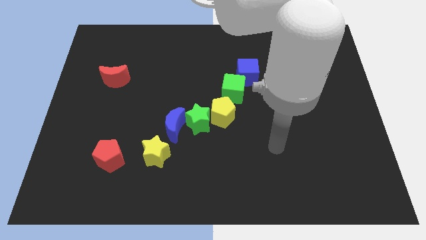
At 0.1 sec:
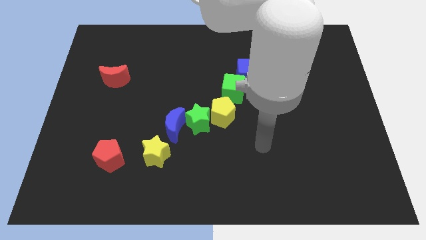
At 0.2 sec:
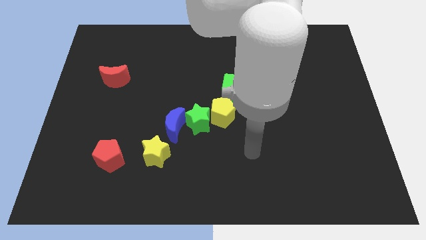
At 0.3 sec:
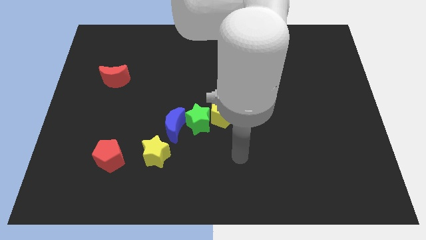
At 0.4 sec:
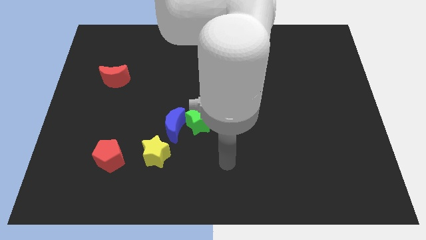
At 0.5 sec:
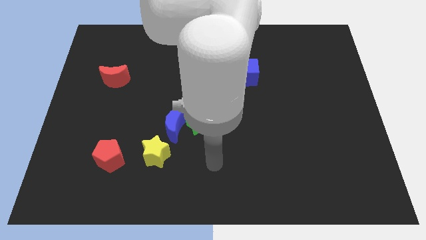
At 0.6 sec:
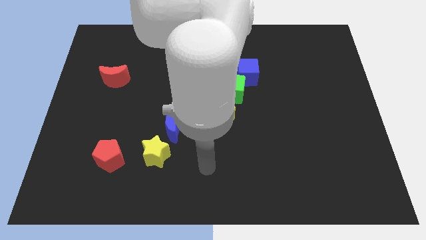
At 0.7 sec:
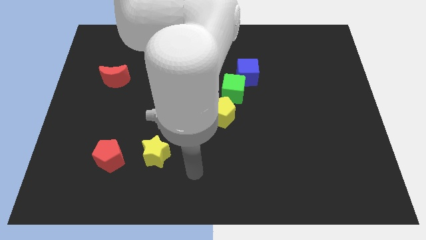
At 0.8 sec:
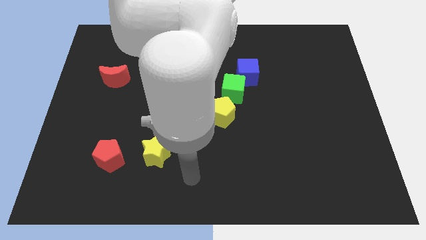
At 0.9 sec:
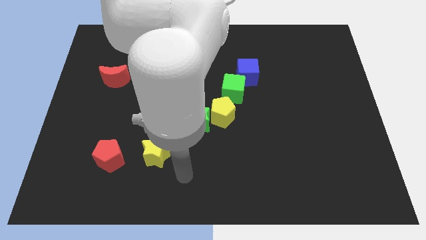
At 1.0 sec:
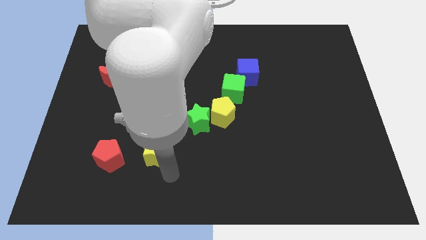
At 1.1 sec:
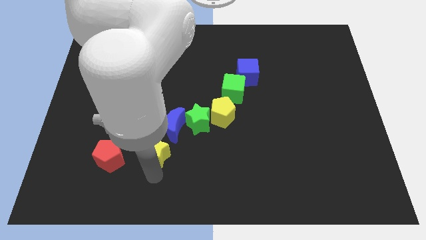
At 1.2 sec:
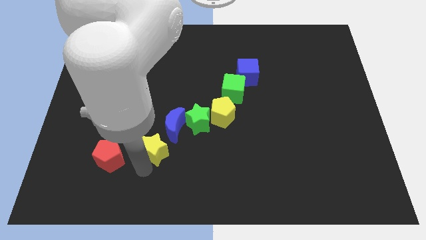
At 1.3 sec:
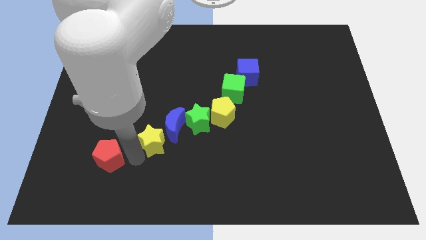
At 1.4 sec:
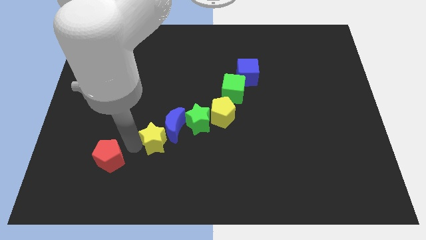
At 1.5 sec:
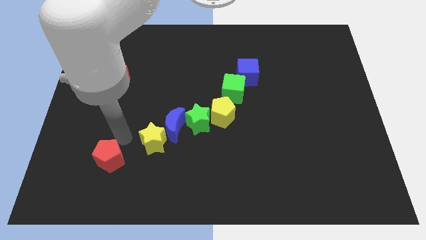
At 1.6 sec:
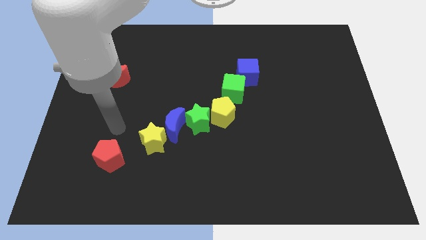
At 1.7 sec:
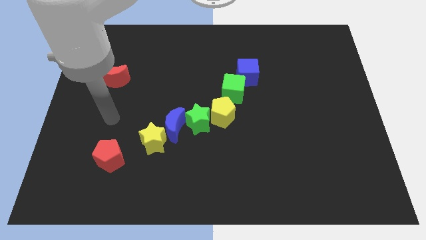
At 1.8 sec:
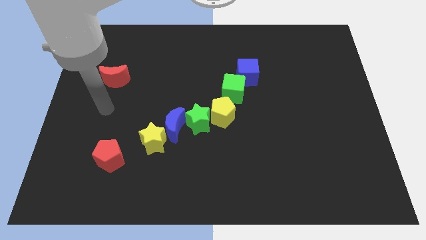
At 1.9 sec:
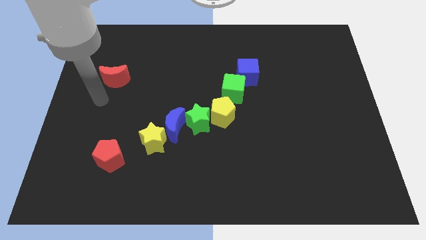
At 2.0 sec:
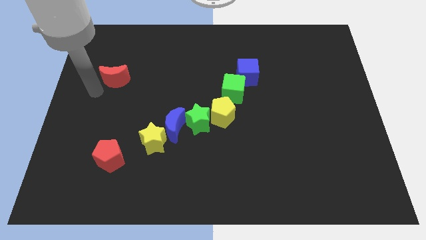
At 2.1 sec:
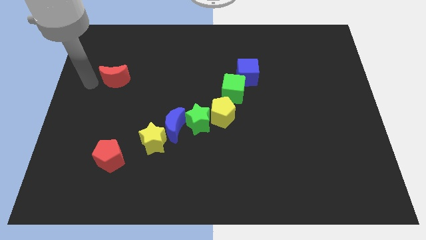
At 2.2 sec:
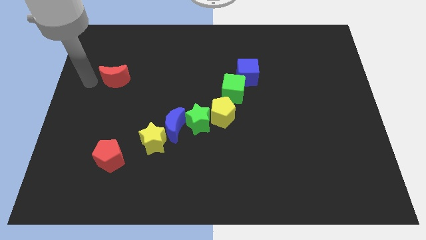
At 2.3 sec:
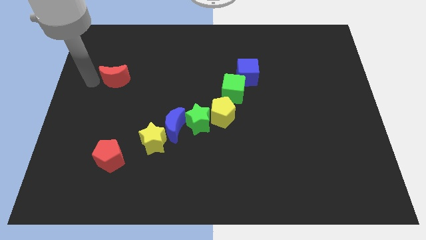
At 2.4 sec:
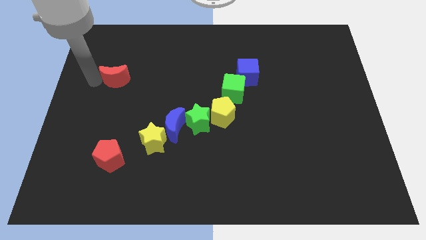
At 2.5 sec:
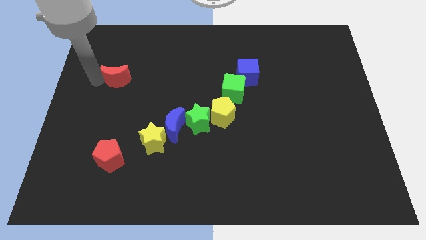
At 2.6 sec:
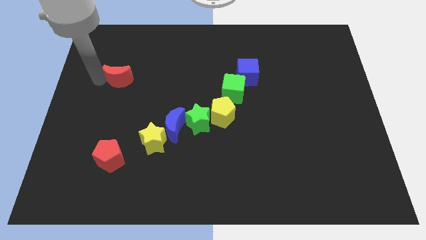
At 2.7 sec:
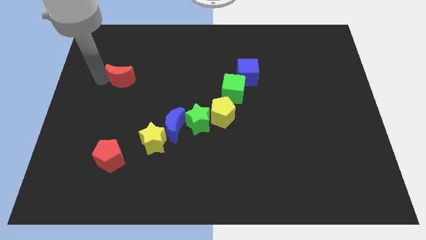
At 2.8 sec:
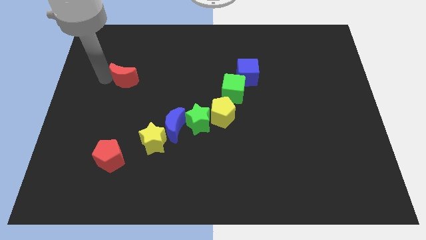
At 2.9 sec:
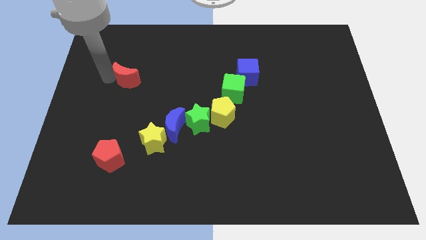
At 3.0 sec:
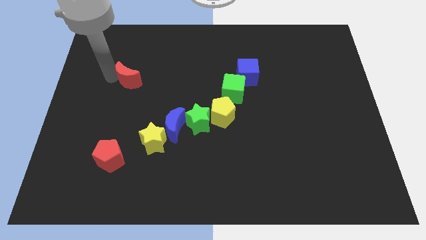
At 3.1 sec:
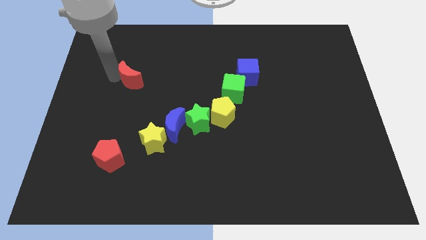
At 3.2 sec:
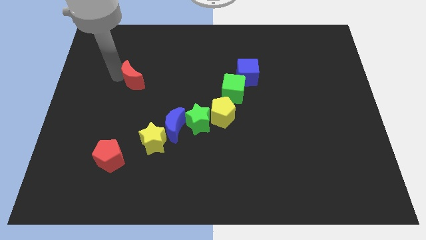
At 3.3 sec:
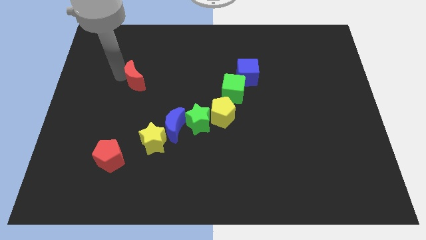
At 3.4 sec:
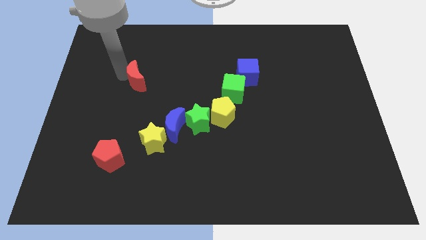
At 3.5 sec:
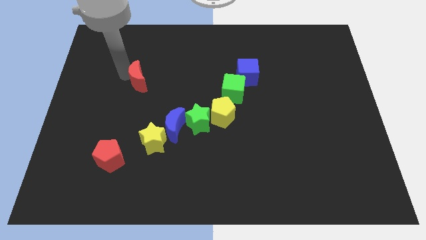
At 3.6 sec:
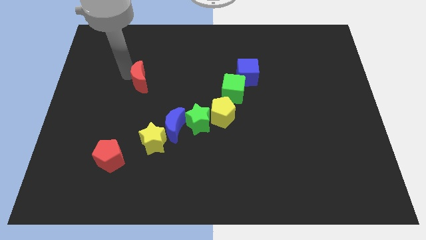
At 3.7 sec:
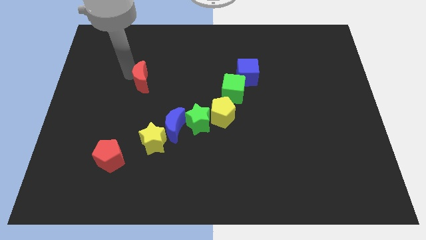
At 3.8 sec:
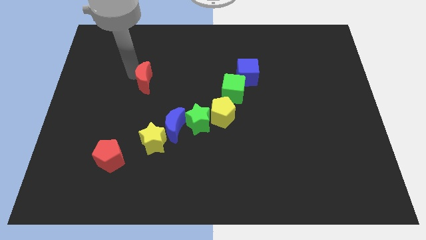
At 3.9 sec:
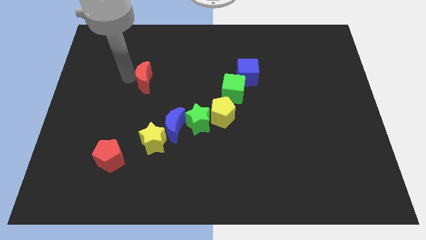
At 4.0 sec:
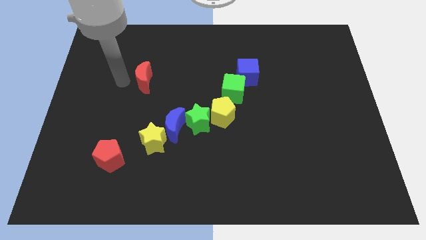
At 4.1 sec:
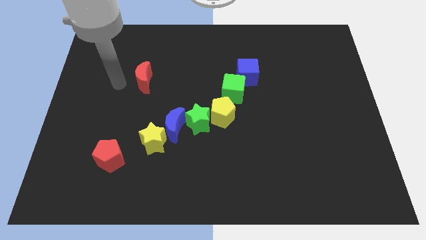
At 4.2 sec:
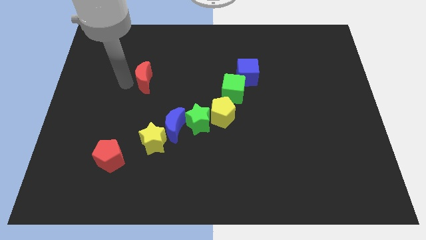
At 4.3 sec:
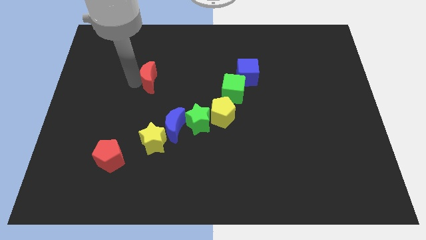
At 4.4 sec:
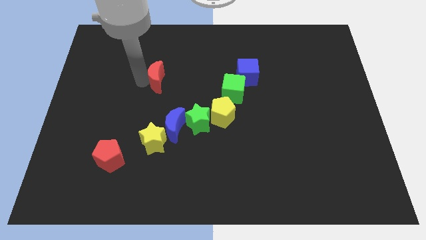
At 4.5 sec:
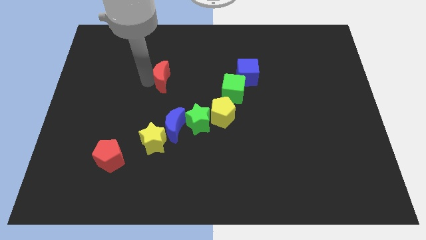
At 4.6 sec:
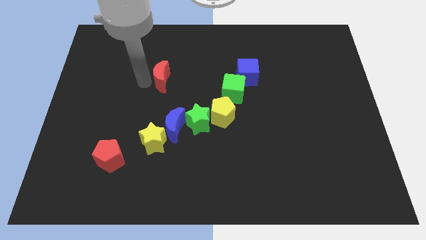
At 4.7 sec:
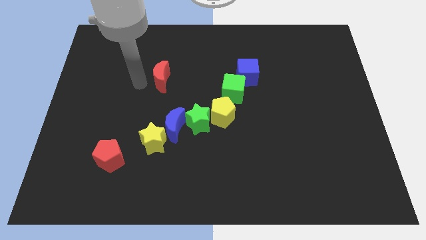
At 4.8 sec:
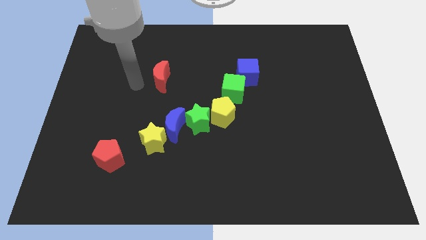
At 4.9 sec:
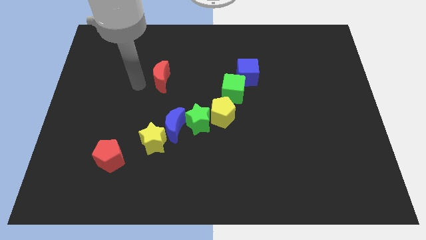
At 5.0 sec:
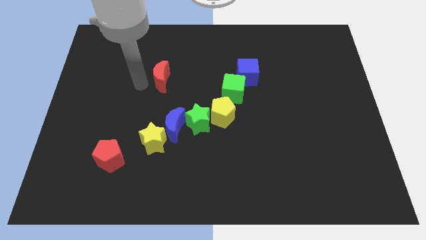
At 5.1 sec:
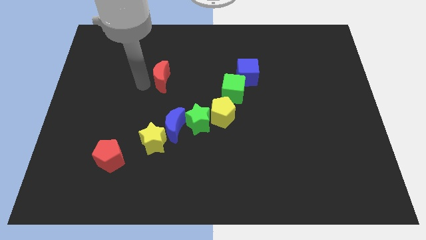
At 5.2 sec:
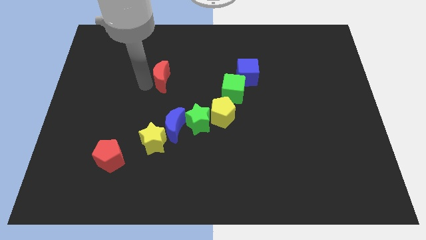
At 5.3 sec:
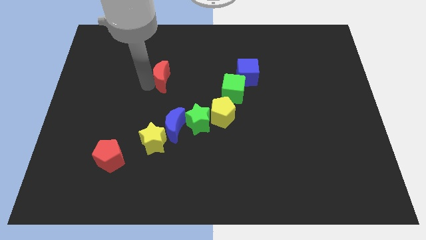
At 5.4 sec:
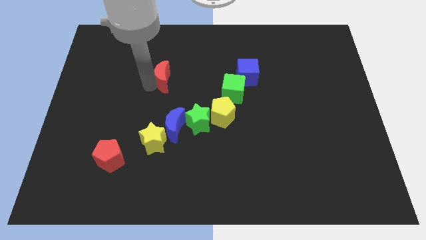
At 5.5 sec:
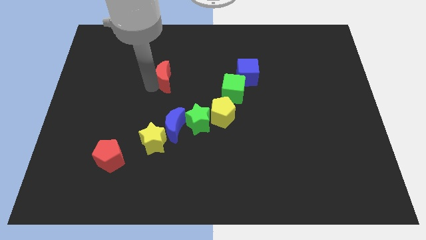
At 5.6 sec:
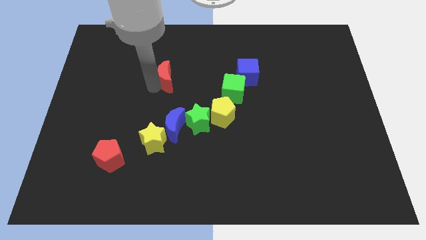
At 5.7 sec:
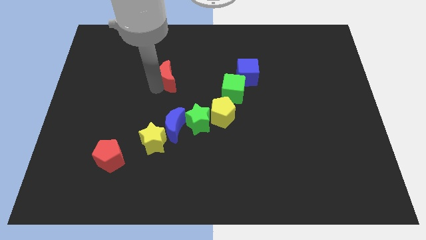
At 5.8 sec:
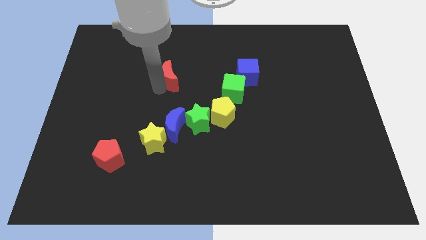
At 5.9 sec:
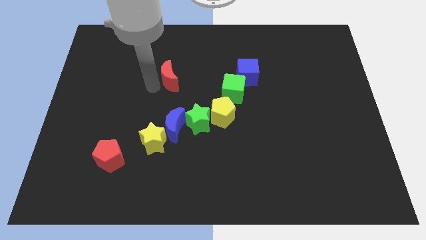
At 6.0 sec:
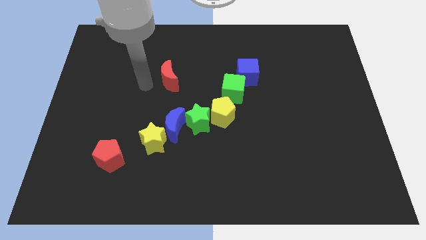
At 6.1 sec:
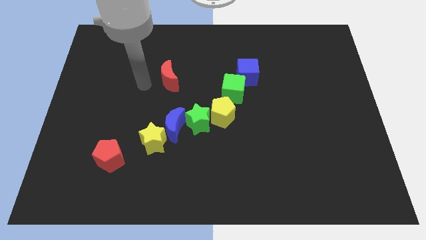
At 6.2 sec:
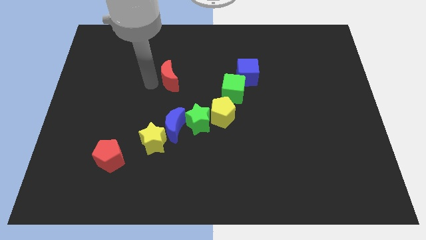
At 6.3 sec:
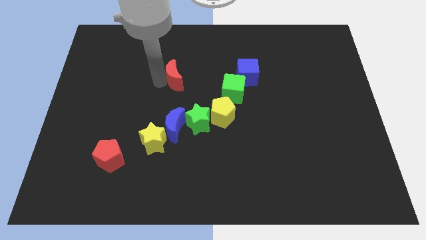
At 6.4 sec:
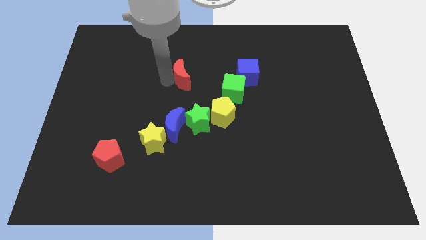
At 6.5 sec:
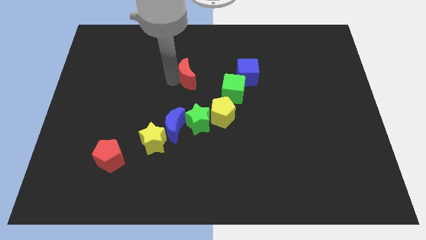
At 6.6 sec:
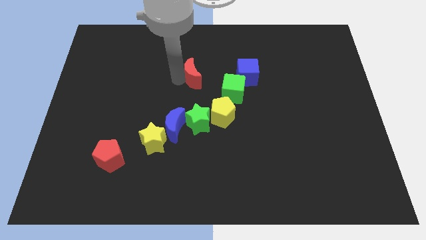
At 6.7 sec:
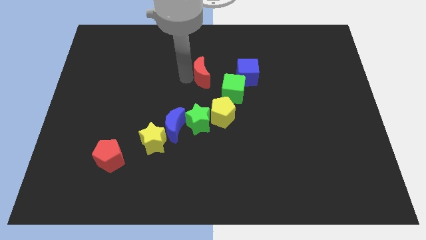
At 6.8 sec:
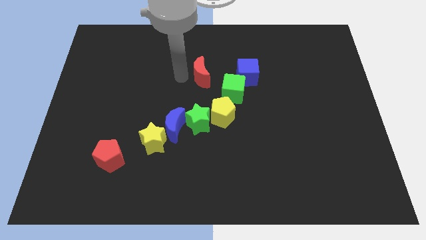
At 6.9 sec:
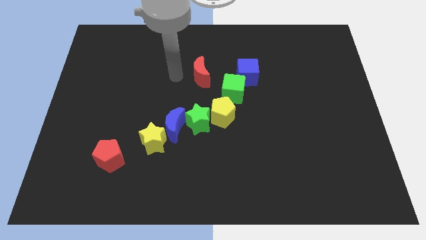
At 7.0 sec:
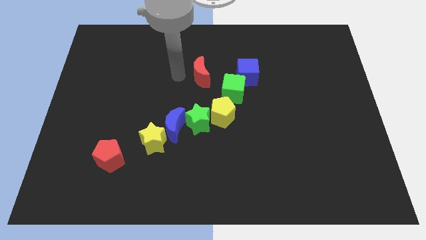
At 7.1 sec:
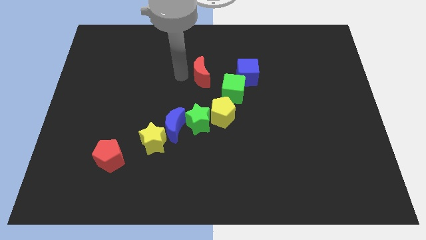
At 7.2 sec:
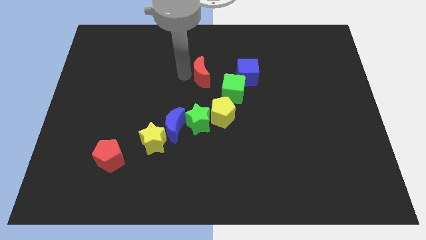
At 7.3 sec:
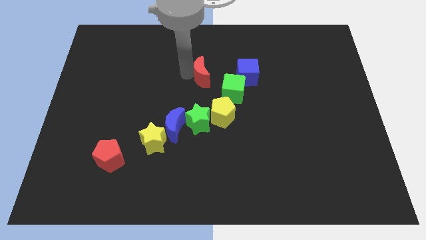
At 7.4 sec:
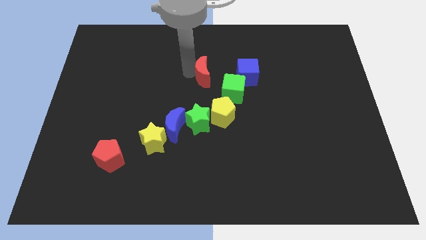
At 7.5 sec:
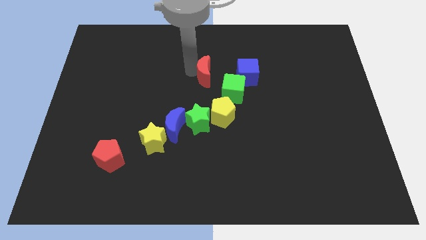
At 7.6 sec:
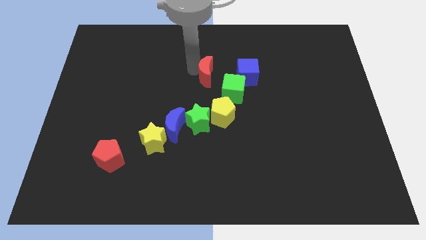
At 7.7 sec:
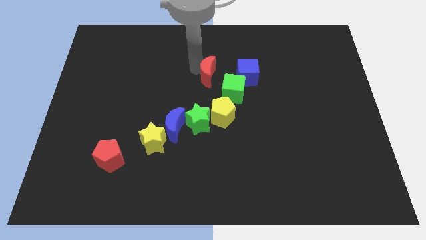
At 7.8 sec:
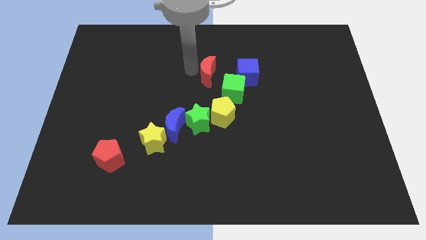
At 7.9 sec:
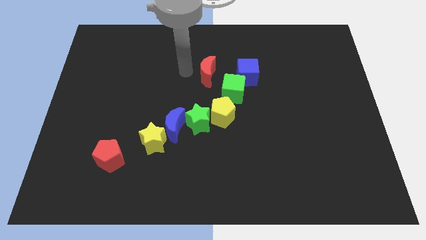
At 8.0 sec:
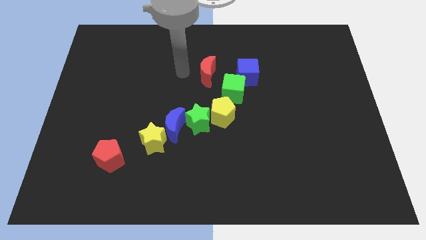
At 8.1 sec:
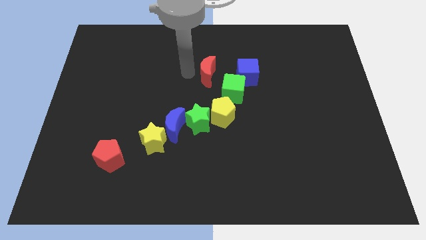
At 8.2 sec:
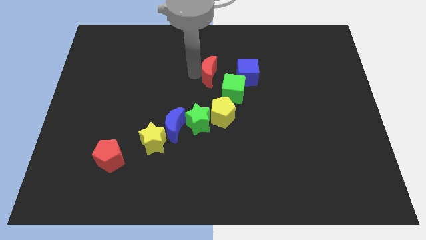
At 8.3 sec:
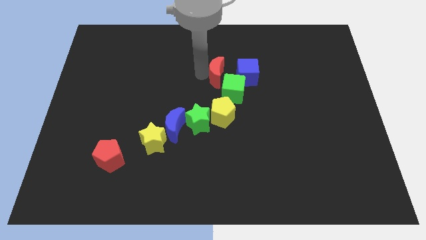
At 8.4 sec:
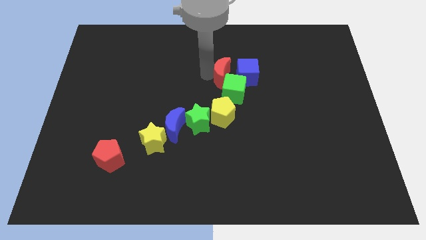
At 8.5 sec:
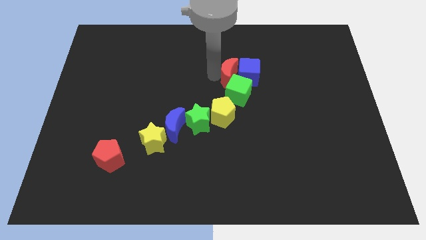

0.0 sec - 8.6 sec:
put the red moon to the blue cube
